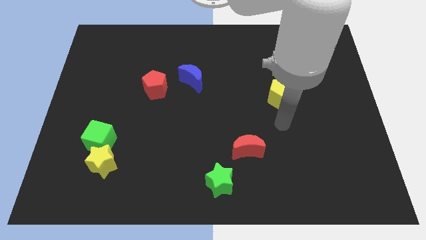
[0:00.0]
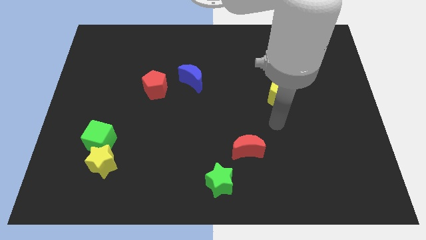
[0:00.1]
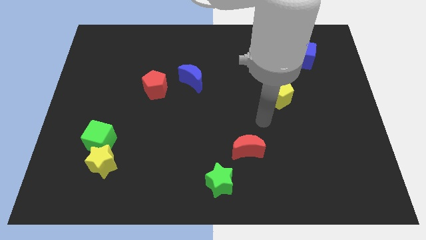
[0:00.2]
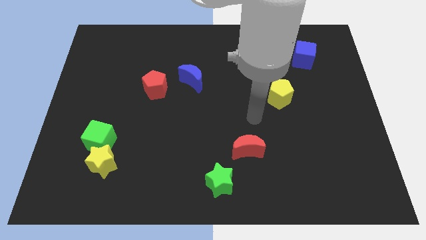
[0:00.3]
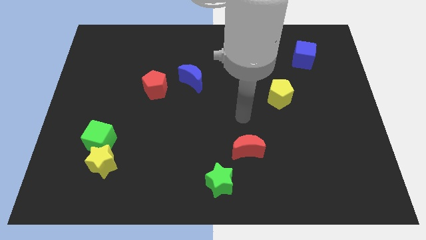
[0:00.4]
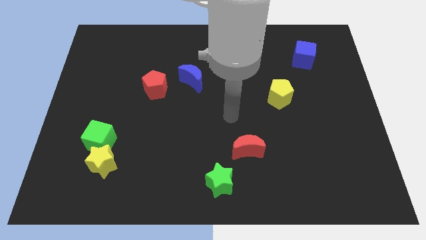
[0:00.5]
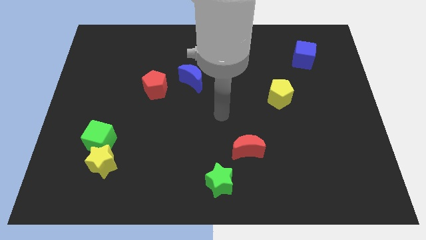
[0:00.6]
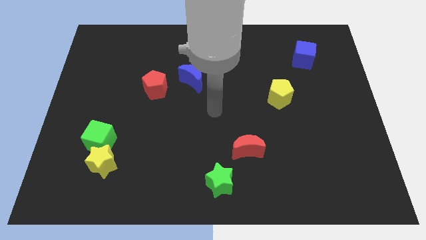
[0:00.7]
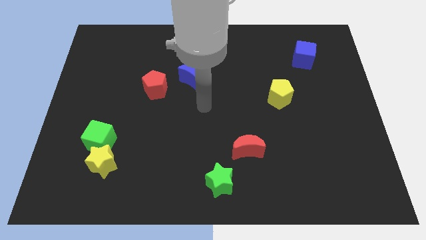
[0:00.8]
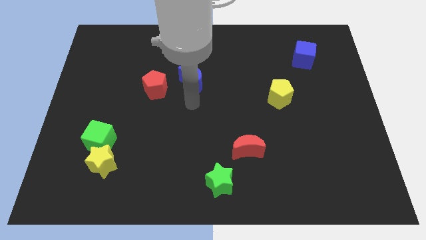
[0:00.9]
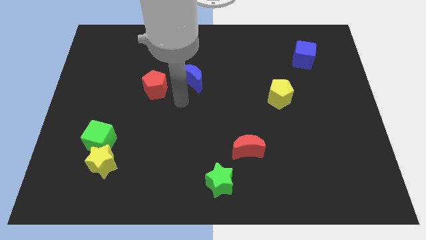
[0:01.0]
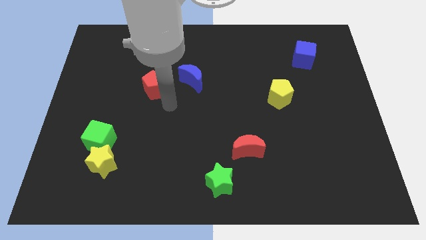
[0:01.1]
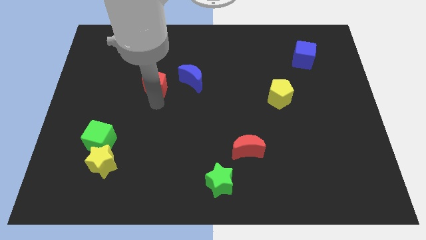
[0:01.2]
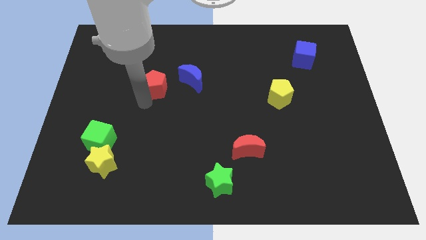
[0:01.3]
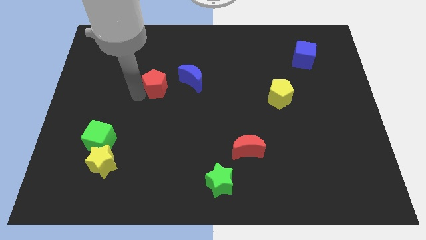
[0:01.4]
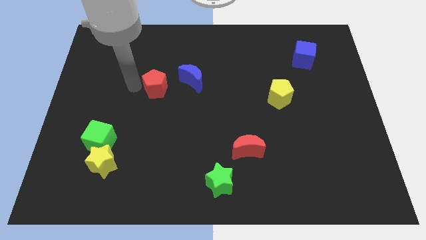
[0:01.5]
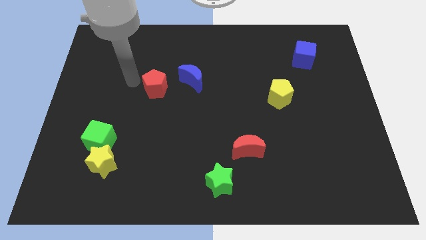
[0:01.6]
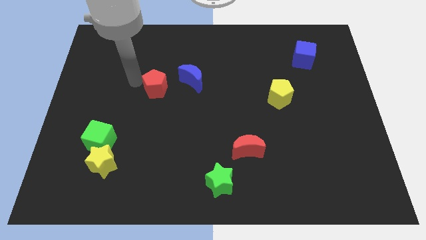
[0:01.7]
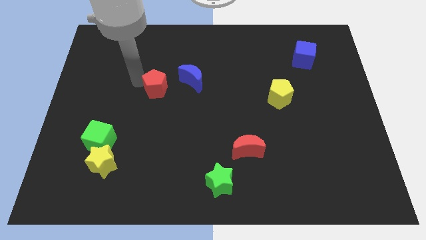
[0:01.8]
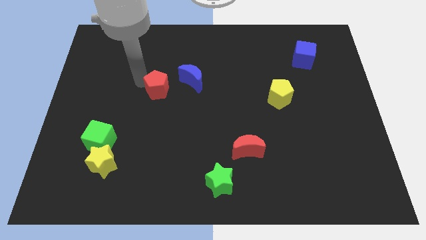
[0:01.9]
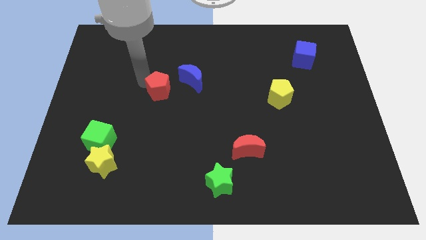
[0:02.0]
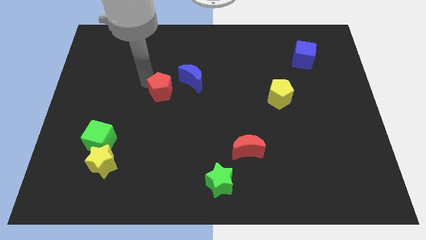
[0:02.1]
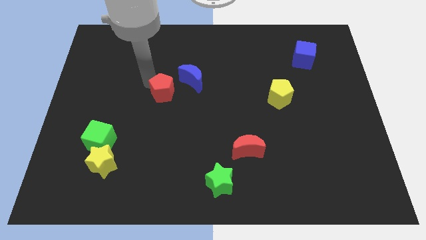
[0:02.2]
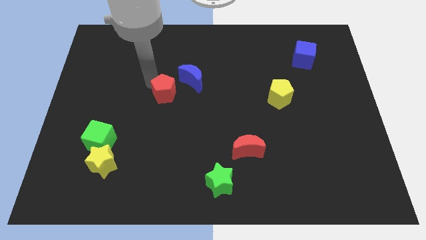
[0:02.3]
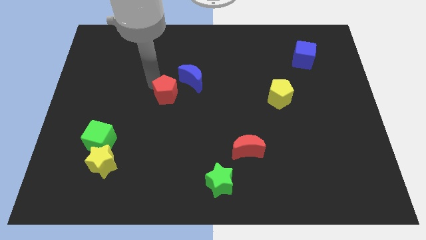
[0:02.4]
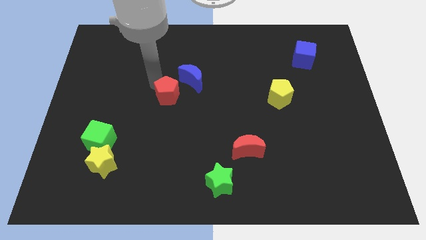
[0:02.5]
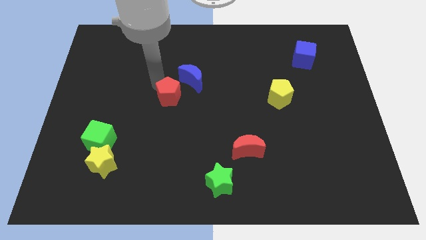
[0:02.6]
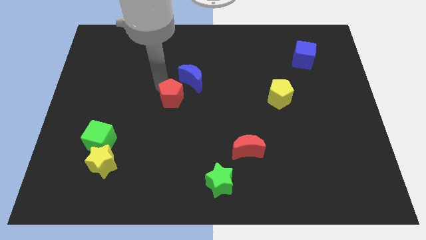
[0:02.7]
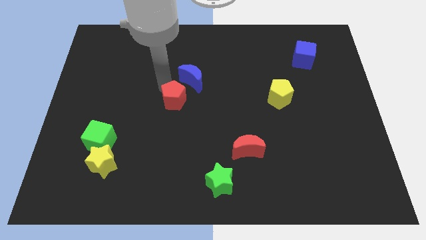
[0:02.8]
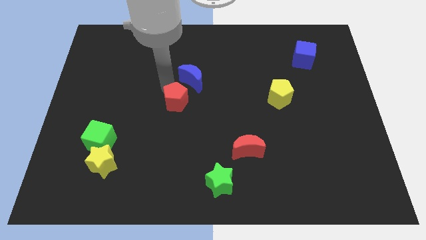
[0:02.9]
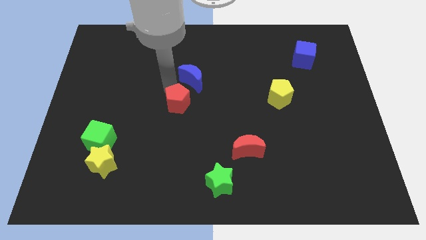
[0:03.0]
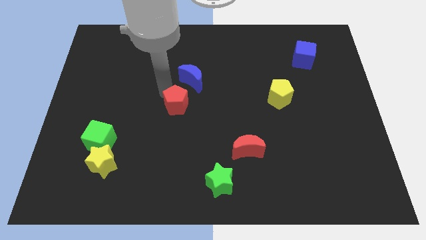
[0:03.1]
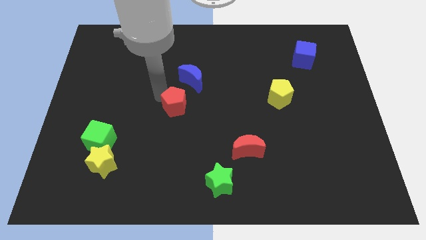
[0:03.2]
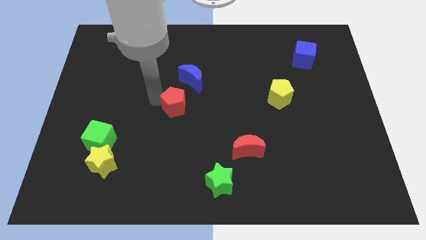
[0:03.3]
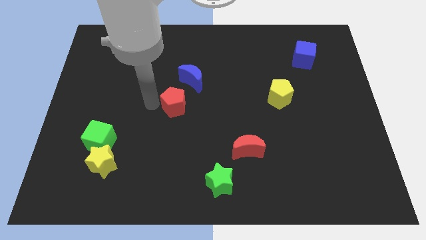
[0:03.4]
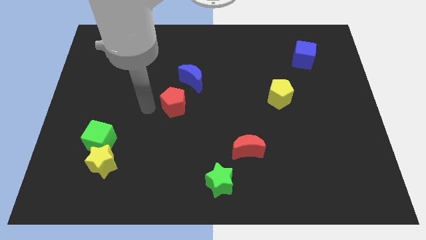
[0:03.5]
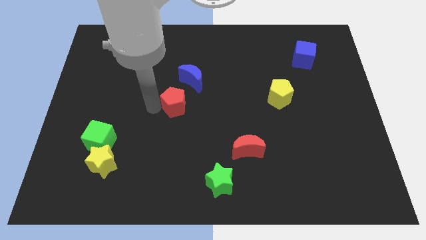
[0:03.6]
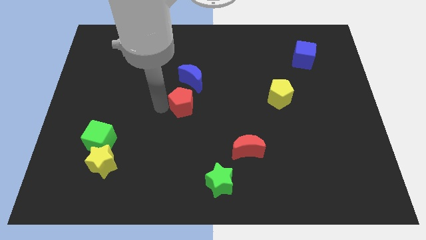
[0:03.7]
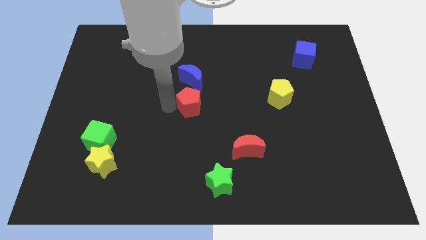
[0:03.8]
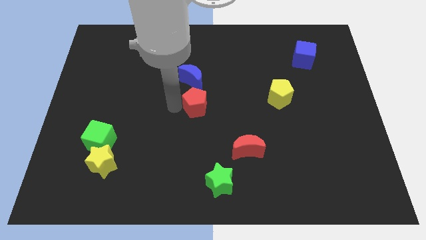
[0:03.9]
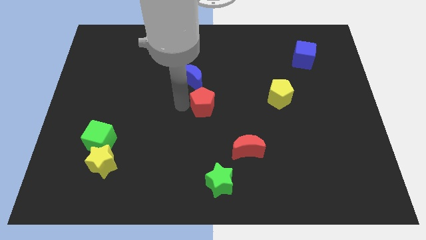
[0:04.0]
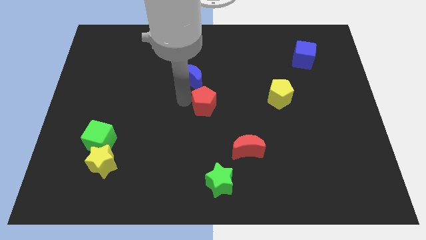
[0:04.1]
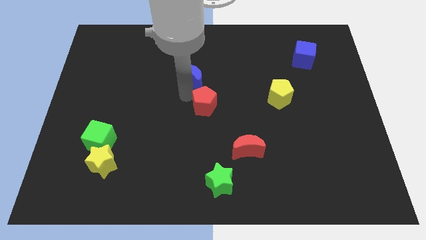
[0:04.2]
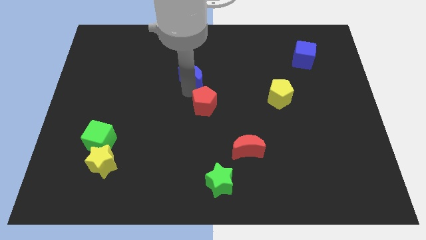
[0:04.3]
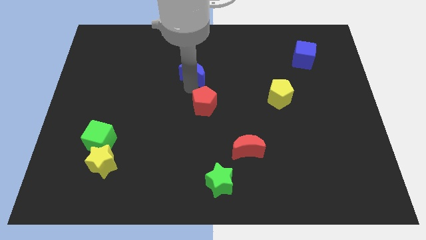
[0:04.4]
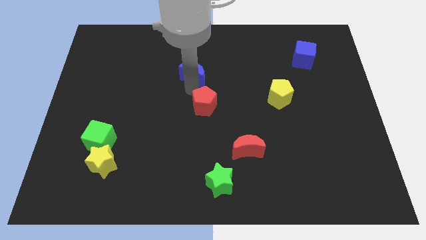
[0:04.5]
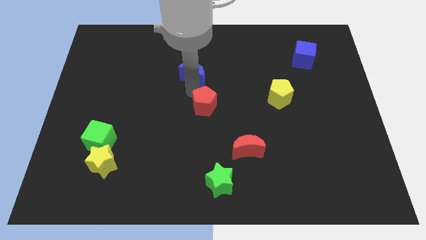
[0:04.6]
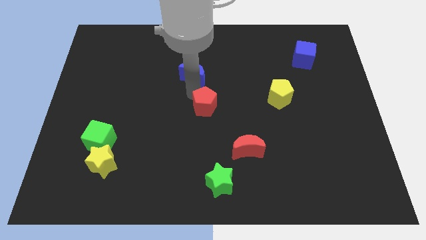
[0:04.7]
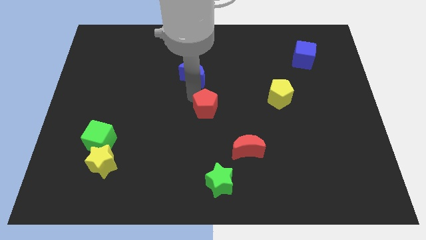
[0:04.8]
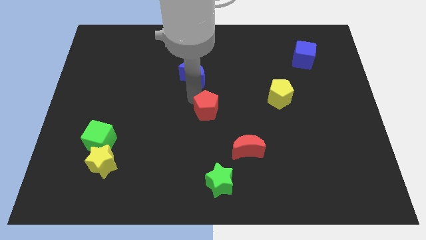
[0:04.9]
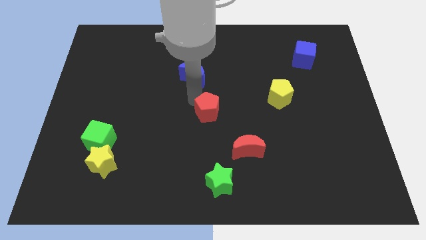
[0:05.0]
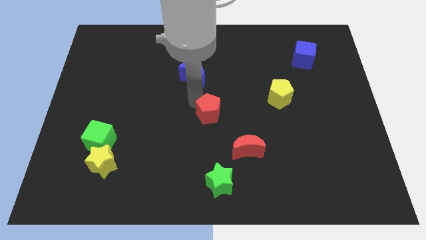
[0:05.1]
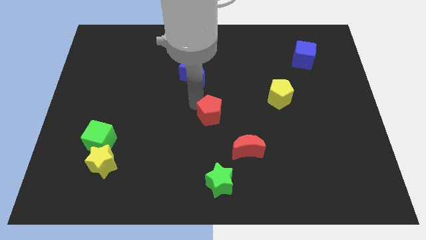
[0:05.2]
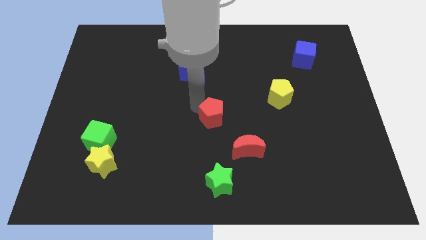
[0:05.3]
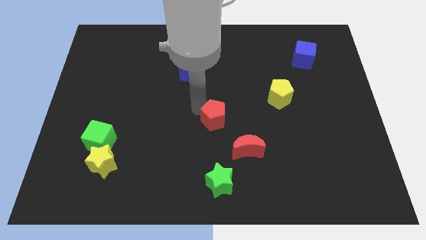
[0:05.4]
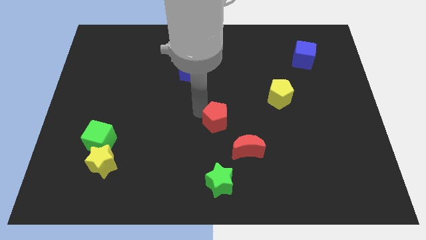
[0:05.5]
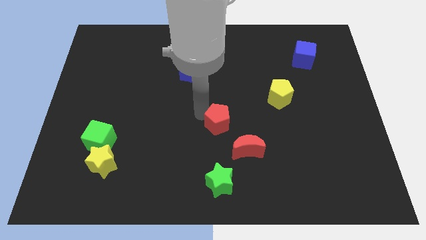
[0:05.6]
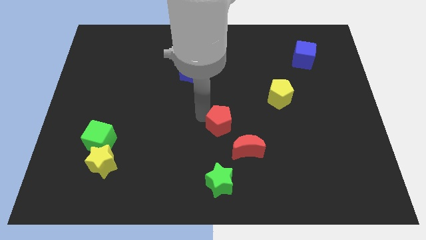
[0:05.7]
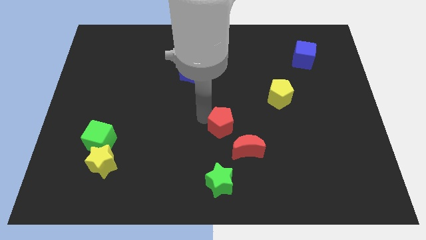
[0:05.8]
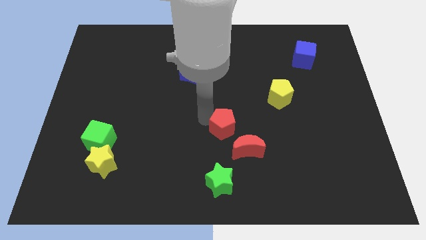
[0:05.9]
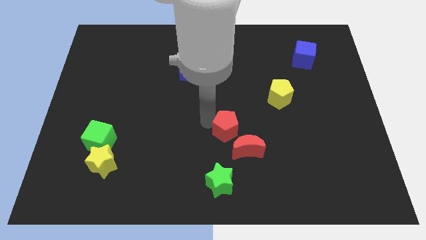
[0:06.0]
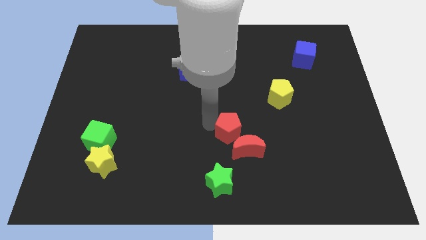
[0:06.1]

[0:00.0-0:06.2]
slide the red pentagon next to the red moon

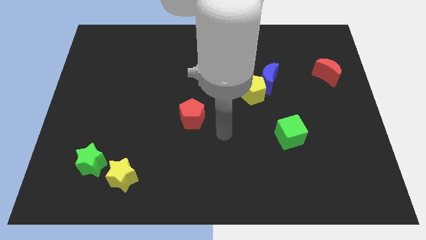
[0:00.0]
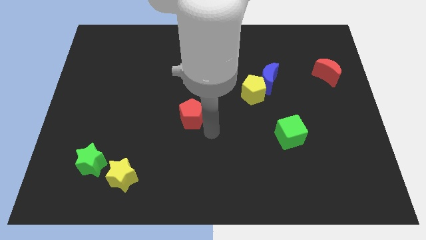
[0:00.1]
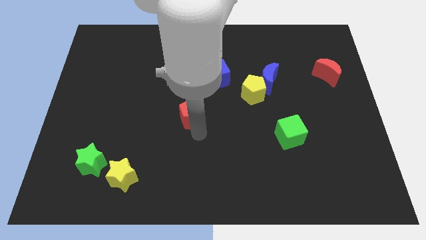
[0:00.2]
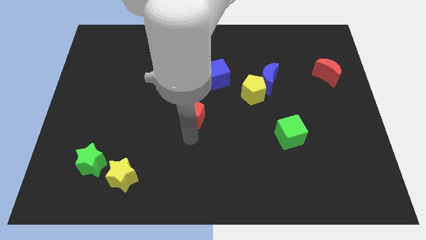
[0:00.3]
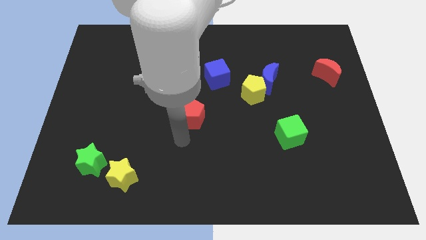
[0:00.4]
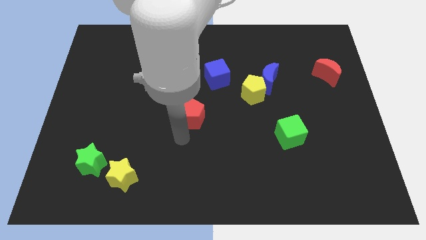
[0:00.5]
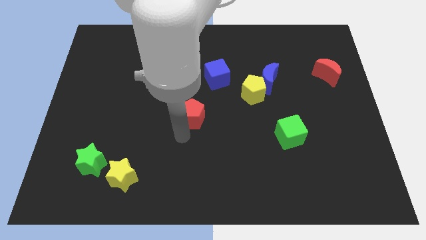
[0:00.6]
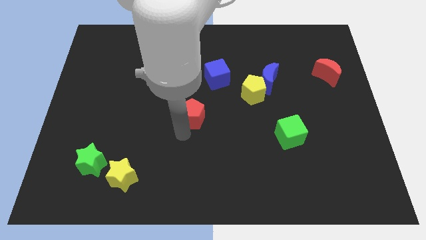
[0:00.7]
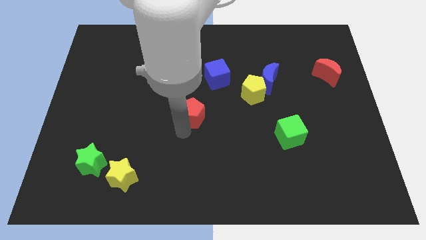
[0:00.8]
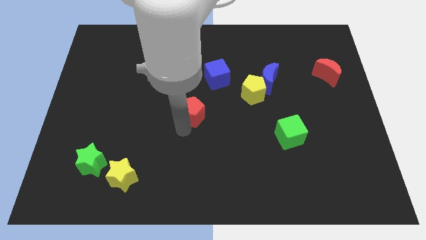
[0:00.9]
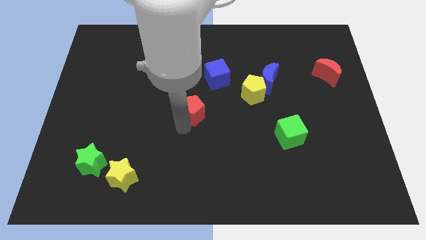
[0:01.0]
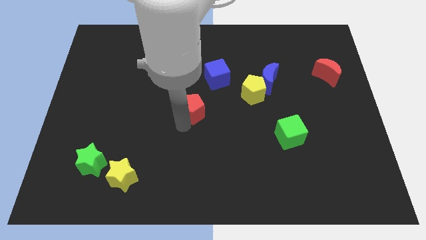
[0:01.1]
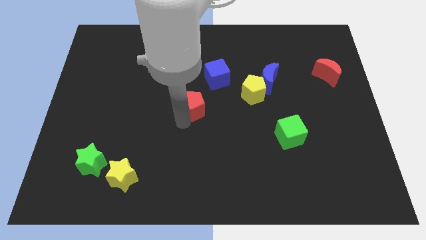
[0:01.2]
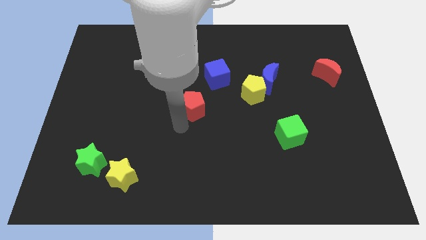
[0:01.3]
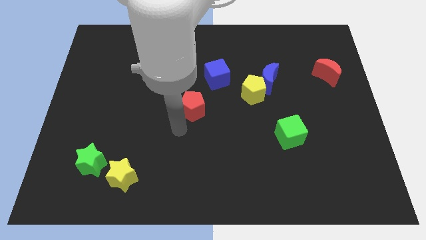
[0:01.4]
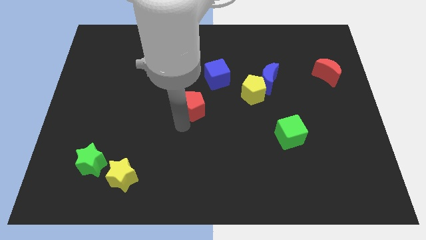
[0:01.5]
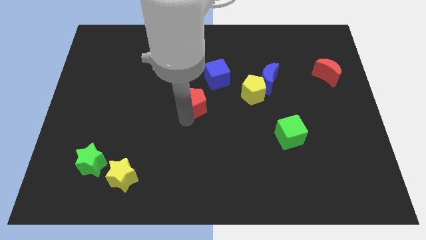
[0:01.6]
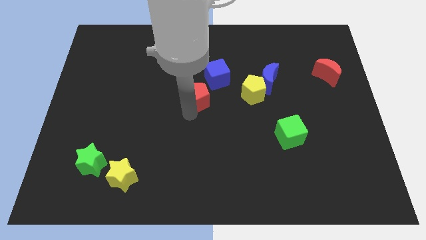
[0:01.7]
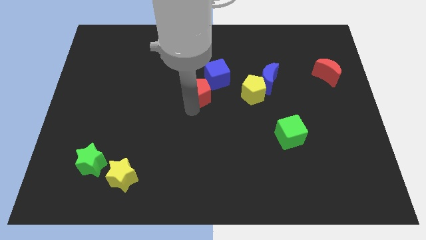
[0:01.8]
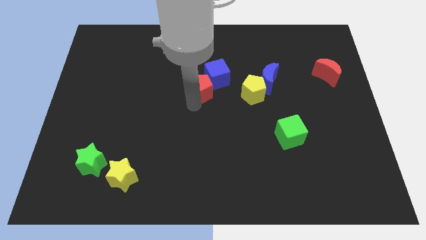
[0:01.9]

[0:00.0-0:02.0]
push the red pentagon to the blue cube
